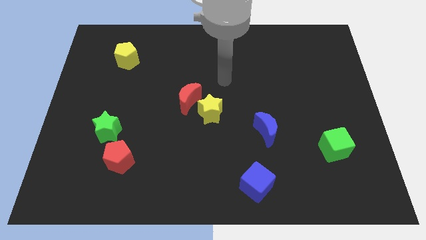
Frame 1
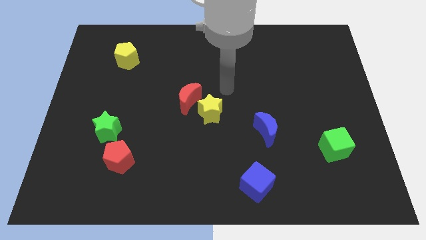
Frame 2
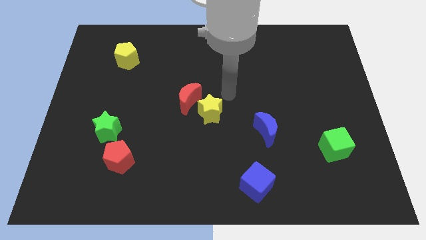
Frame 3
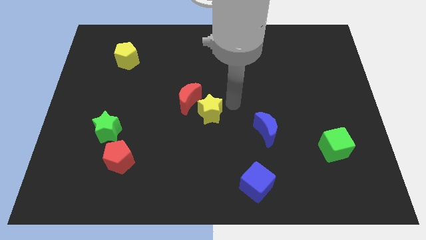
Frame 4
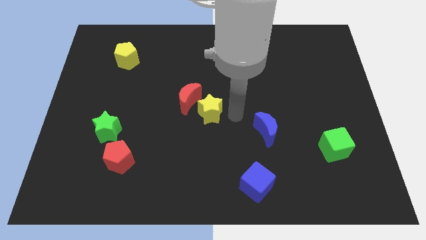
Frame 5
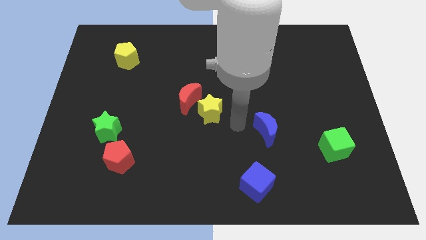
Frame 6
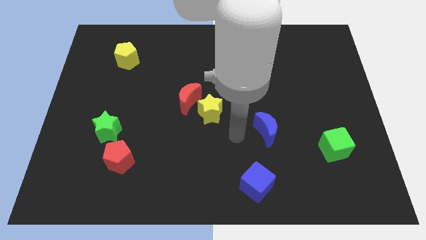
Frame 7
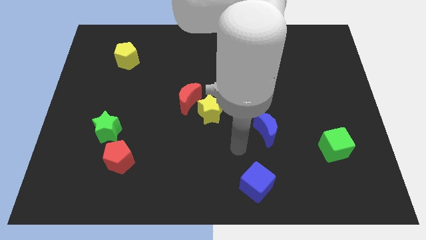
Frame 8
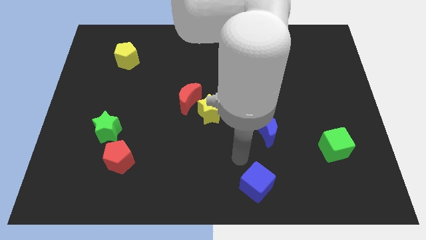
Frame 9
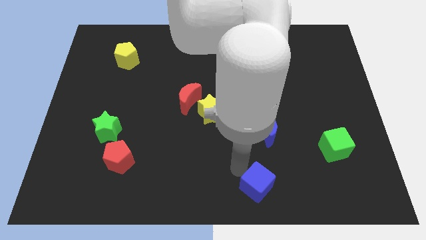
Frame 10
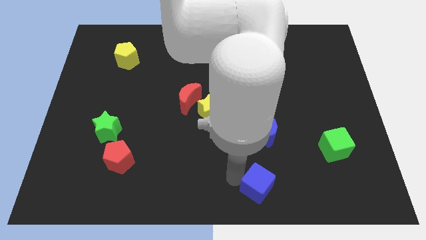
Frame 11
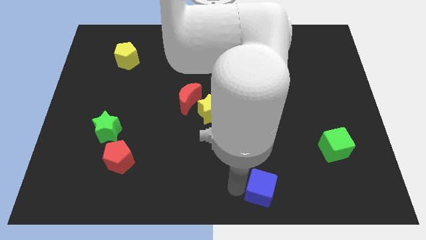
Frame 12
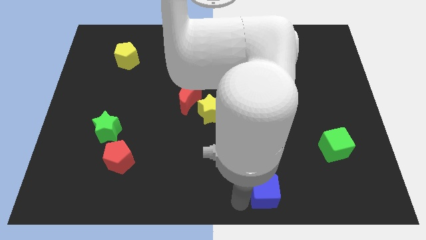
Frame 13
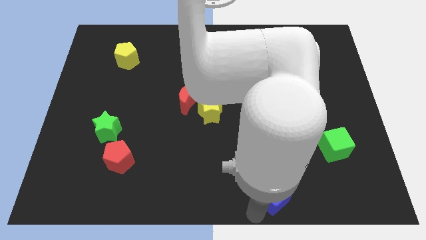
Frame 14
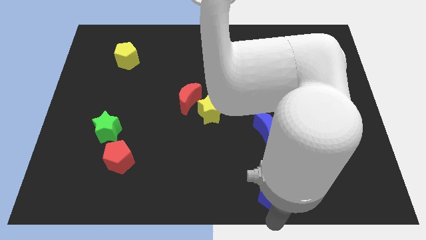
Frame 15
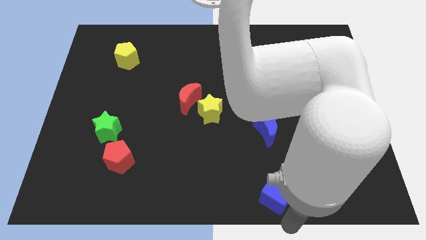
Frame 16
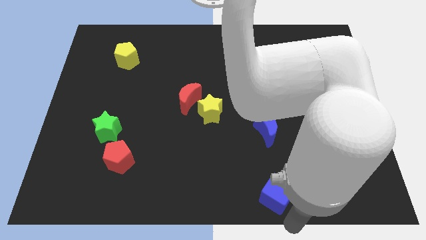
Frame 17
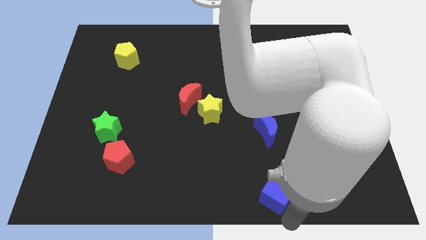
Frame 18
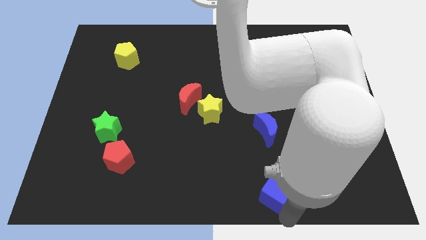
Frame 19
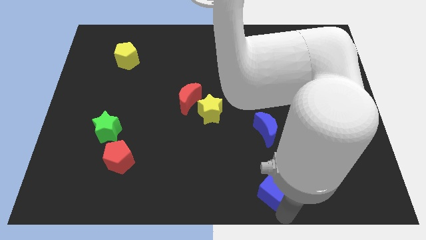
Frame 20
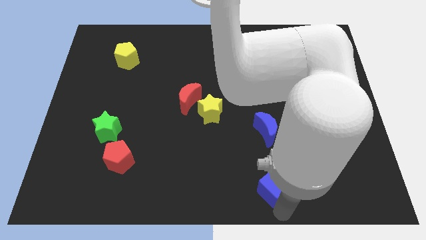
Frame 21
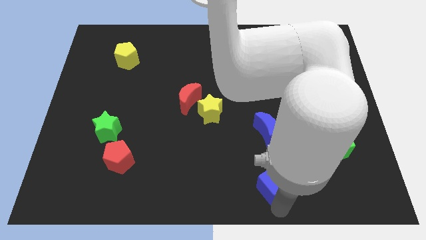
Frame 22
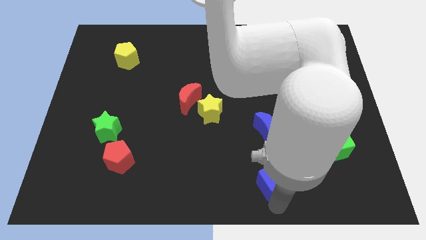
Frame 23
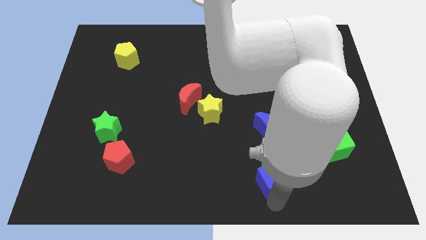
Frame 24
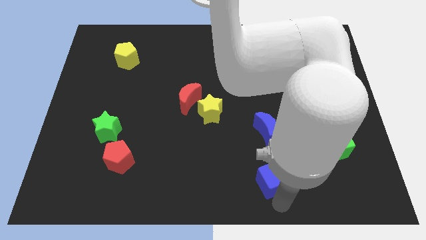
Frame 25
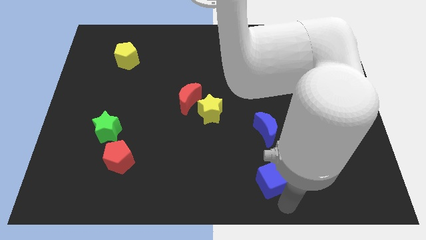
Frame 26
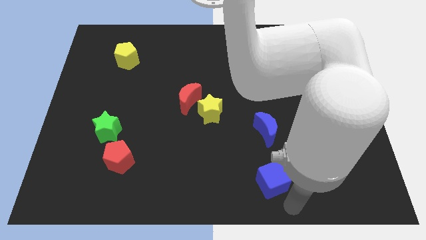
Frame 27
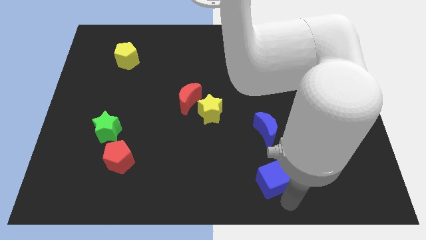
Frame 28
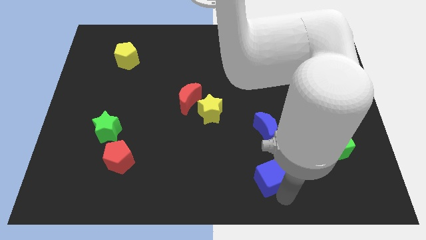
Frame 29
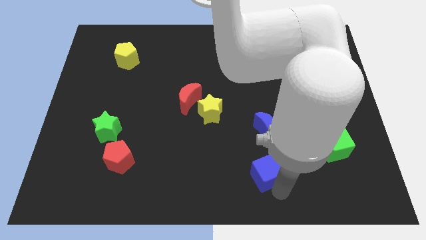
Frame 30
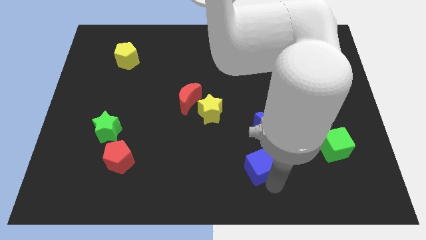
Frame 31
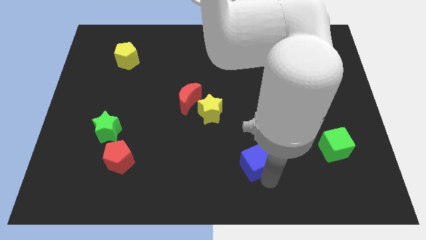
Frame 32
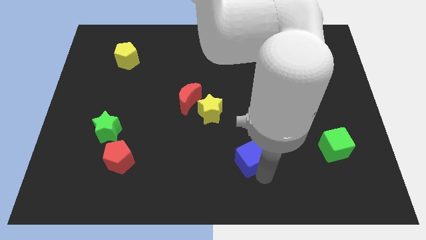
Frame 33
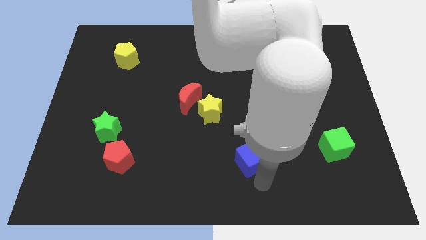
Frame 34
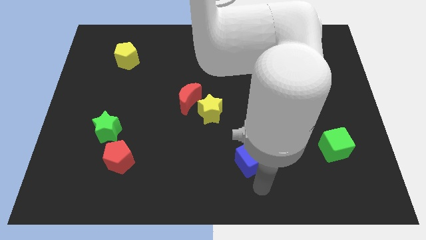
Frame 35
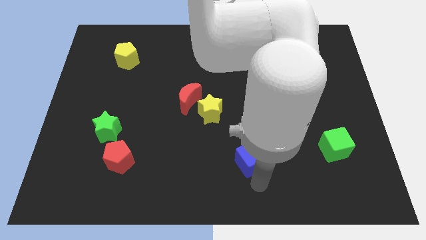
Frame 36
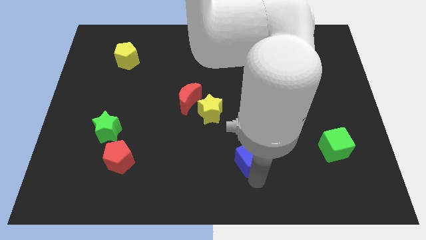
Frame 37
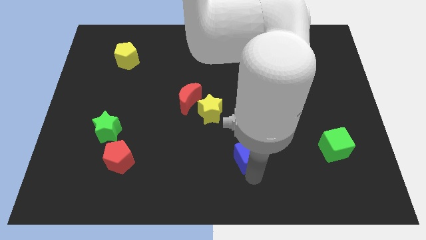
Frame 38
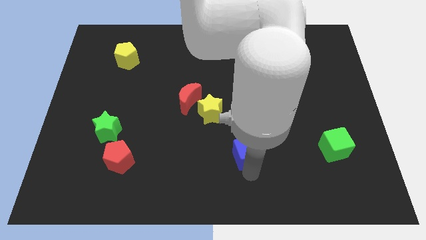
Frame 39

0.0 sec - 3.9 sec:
slide the blue cube up a little bit

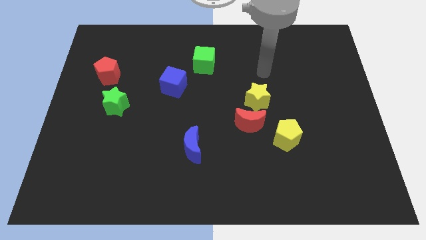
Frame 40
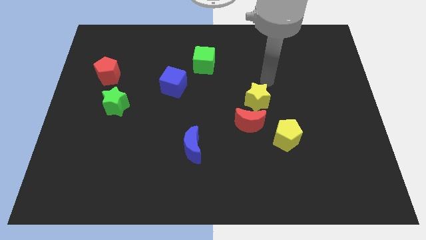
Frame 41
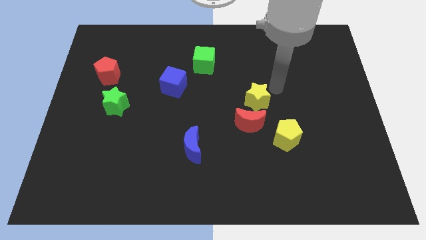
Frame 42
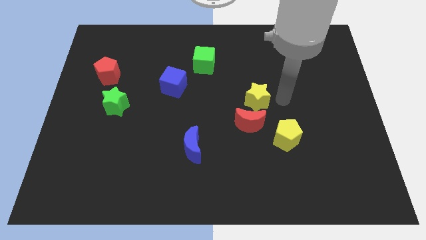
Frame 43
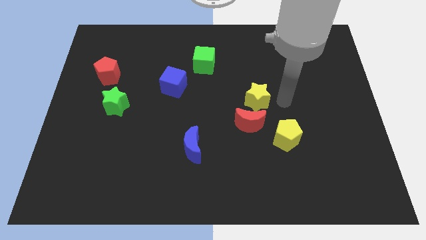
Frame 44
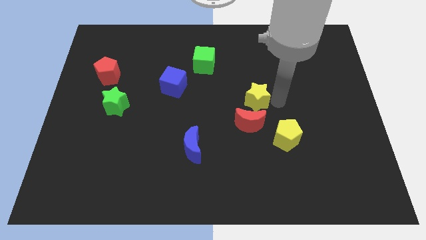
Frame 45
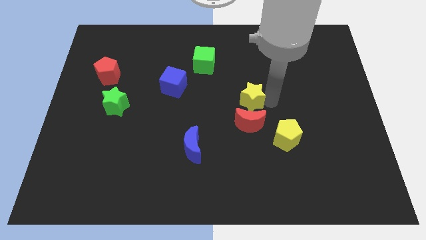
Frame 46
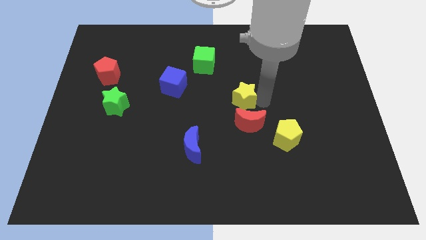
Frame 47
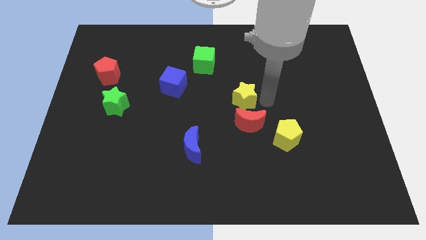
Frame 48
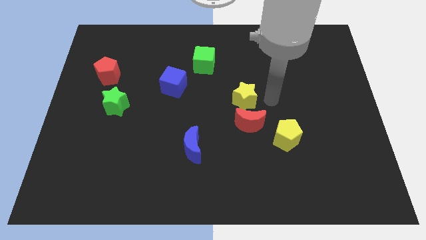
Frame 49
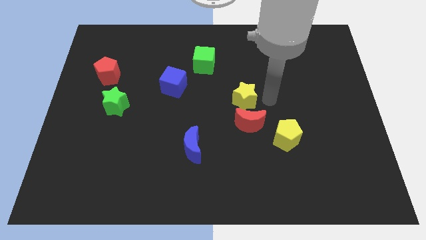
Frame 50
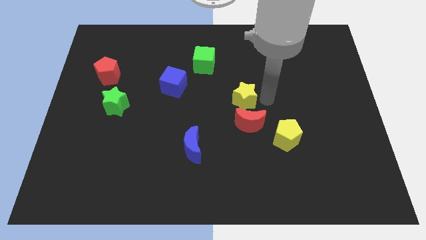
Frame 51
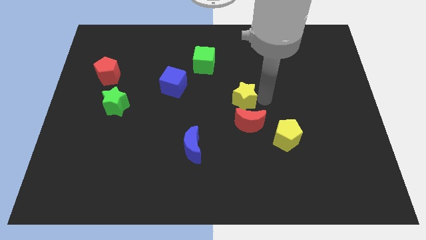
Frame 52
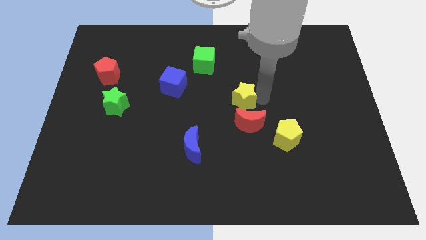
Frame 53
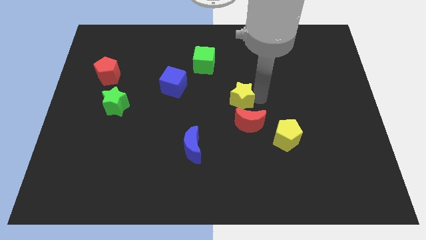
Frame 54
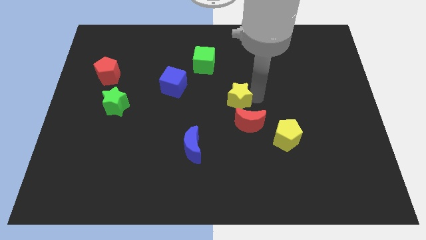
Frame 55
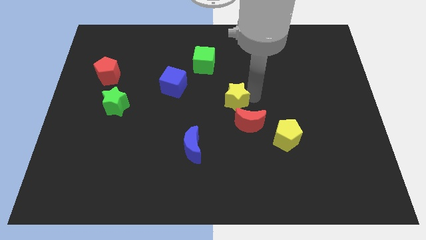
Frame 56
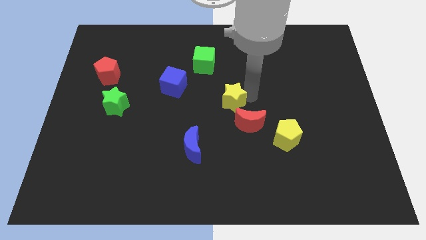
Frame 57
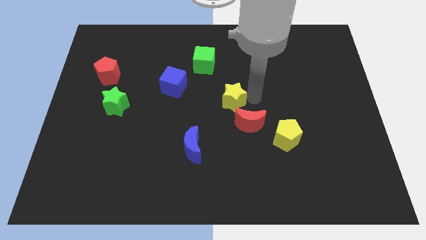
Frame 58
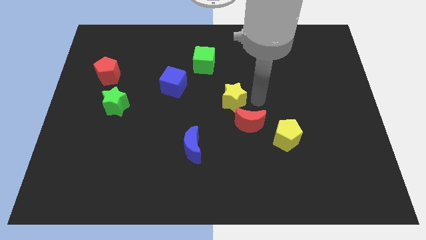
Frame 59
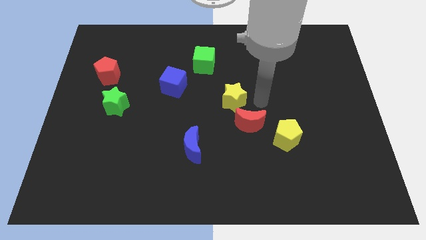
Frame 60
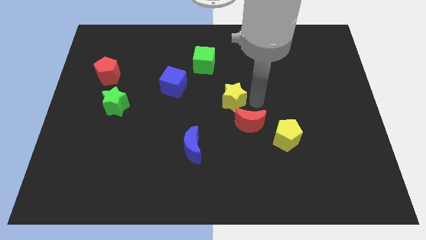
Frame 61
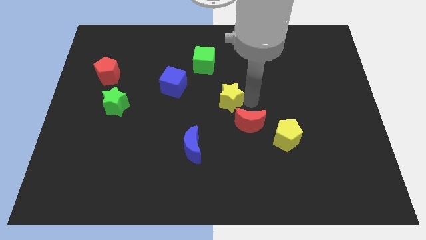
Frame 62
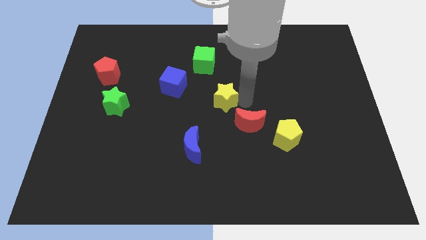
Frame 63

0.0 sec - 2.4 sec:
push the yellow star a little to the left

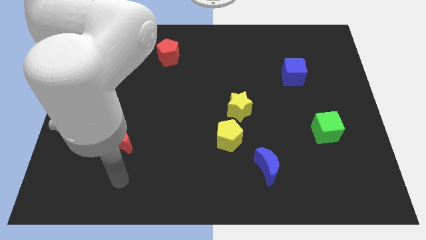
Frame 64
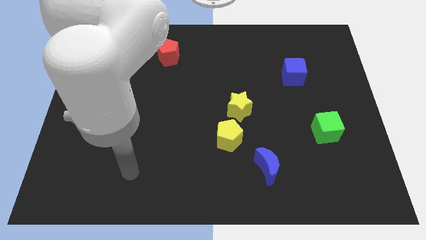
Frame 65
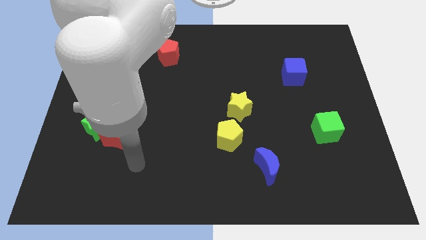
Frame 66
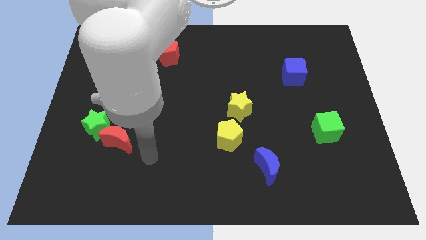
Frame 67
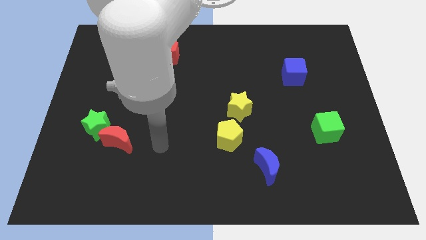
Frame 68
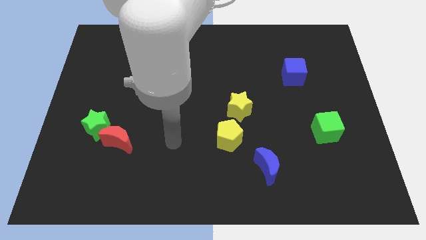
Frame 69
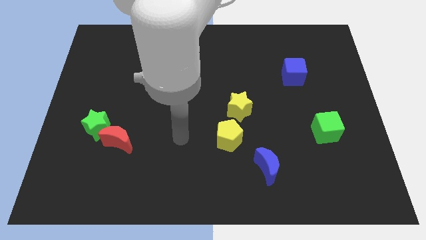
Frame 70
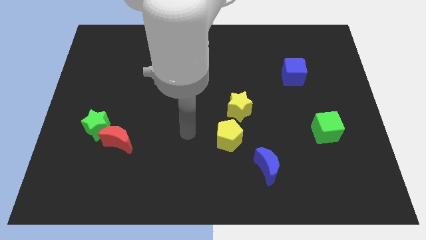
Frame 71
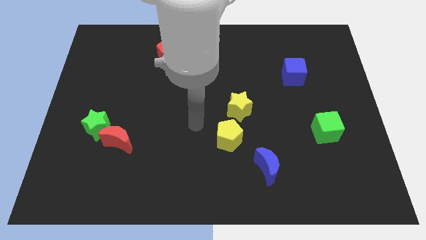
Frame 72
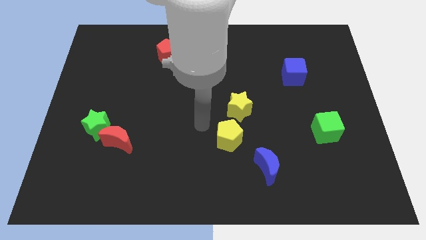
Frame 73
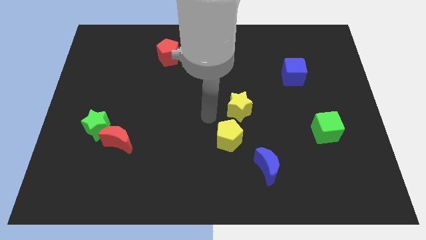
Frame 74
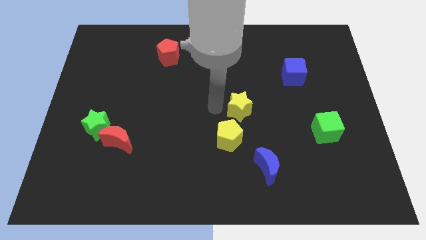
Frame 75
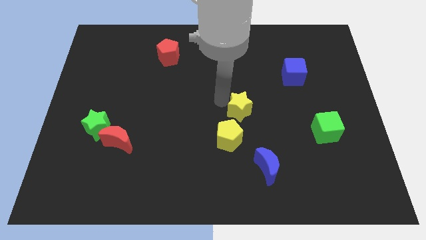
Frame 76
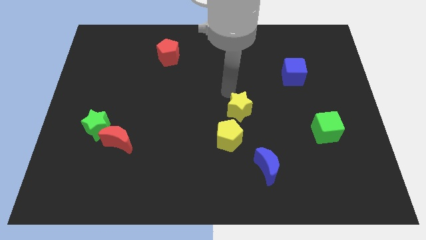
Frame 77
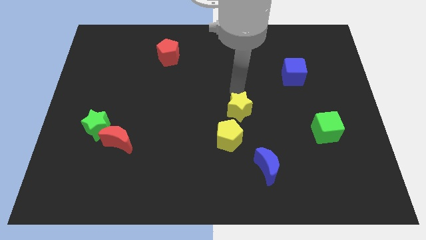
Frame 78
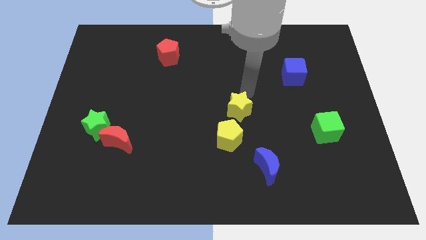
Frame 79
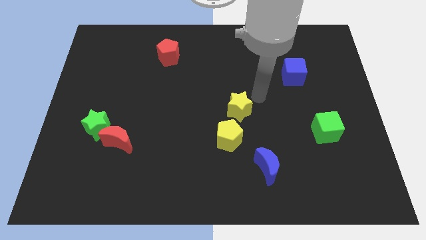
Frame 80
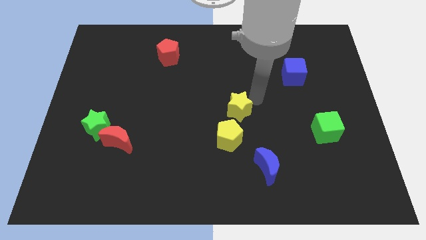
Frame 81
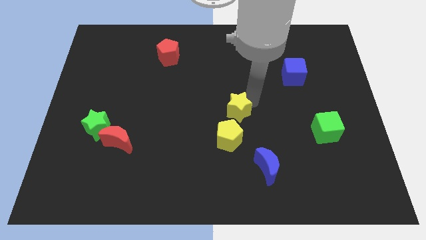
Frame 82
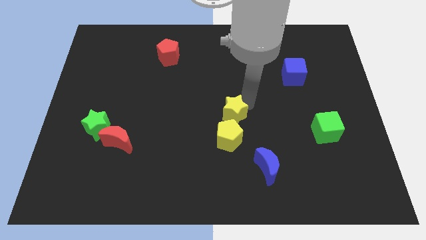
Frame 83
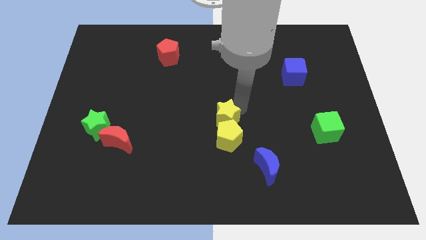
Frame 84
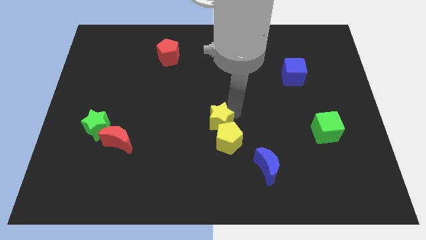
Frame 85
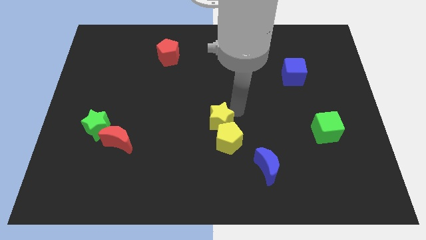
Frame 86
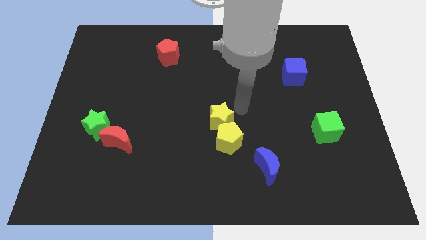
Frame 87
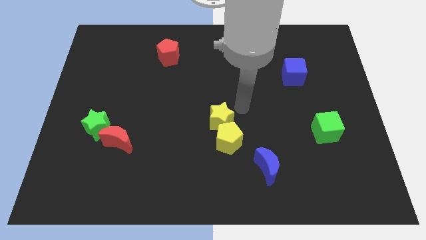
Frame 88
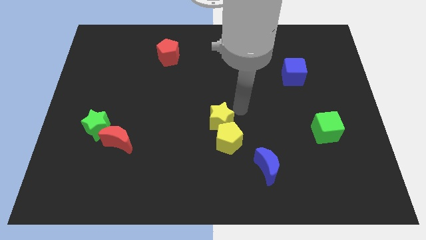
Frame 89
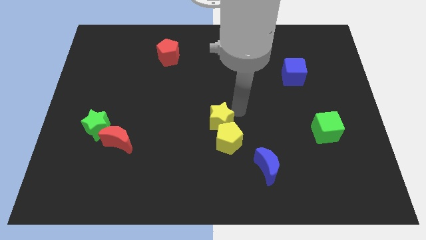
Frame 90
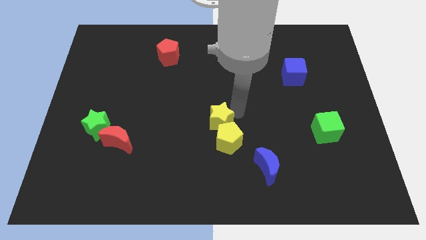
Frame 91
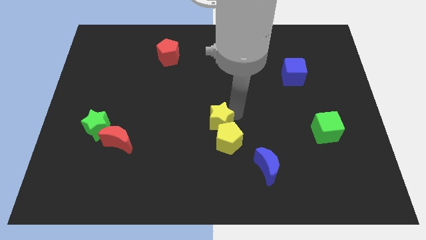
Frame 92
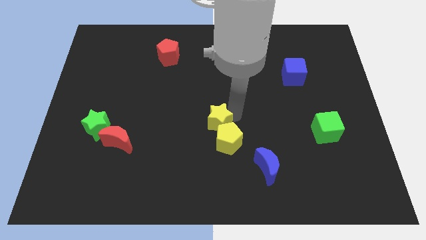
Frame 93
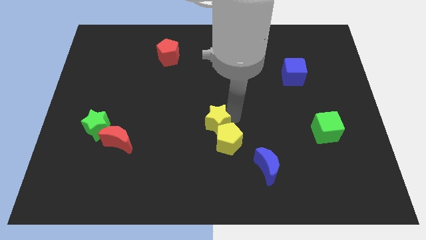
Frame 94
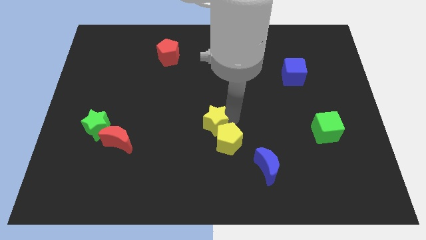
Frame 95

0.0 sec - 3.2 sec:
slide the yellow star downwards and then to the left somewhat
